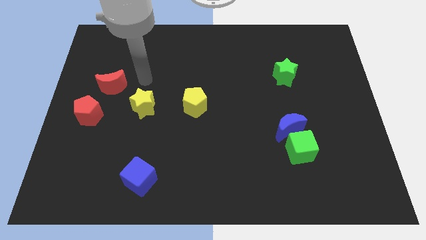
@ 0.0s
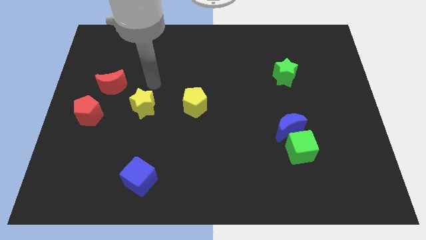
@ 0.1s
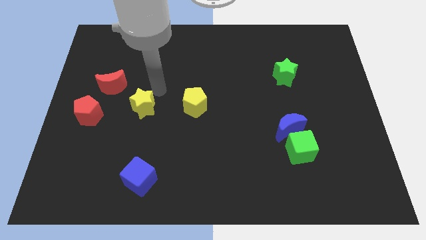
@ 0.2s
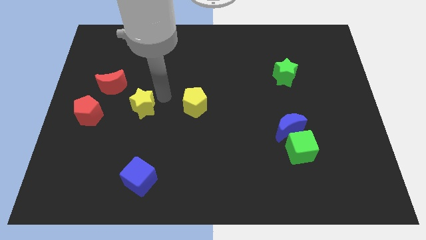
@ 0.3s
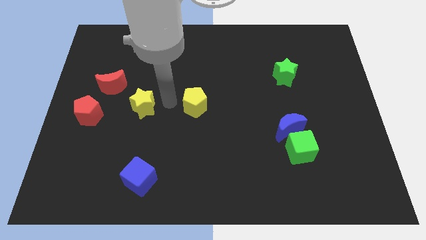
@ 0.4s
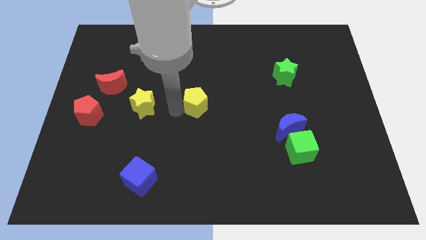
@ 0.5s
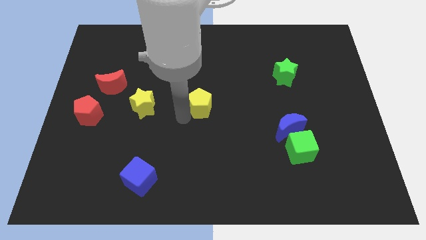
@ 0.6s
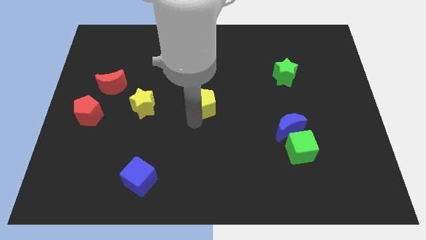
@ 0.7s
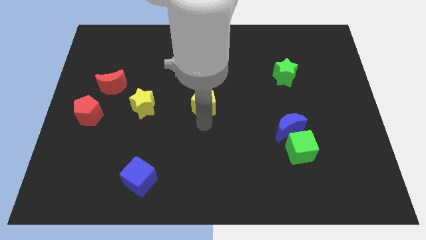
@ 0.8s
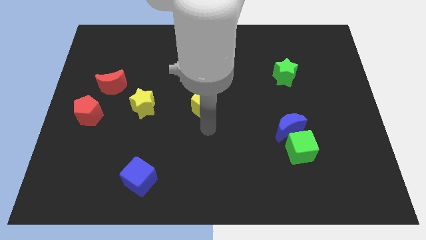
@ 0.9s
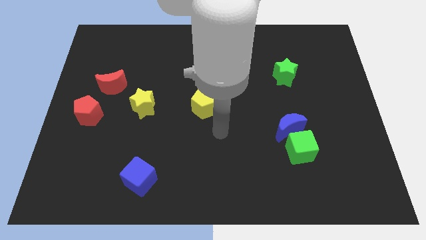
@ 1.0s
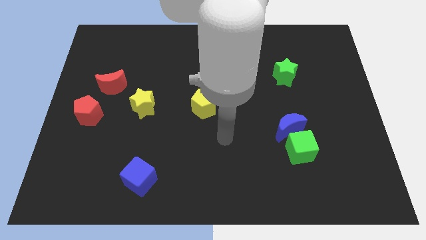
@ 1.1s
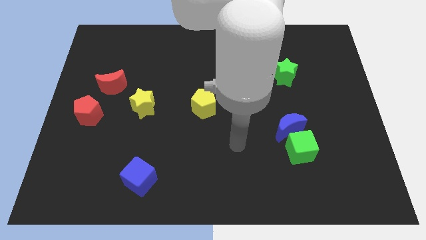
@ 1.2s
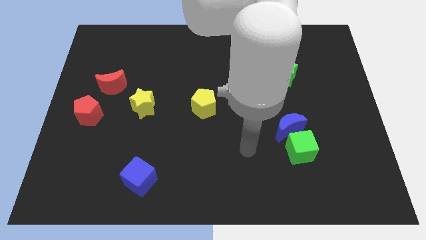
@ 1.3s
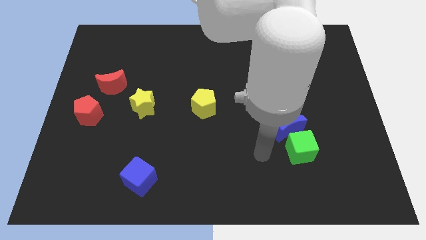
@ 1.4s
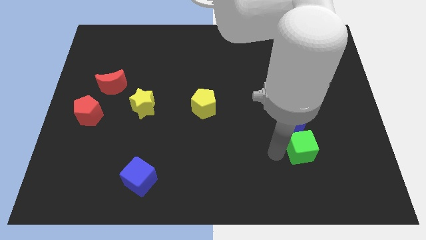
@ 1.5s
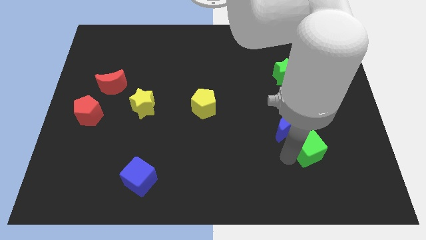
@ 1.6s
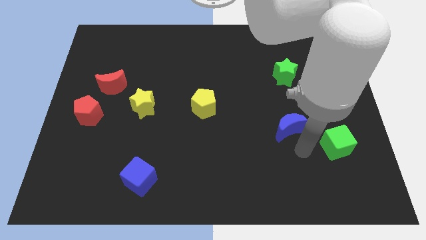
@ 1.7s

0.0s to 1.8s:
separate the blue moon from the green cube

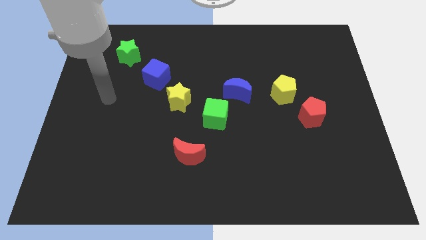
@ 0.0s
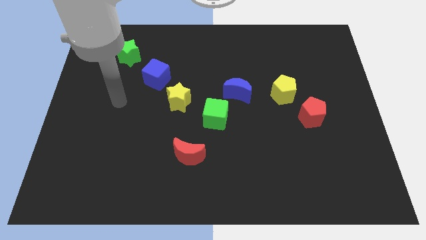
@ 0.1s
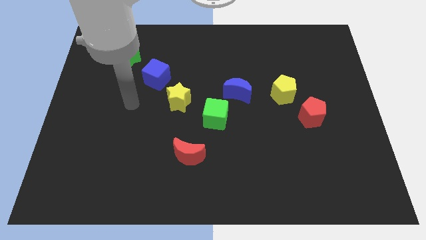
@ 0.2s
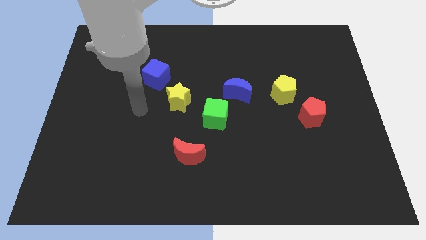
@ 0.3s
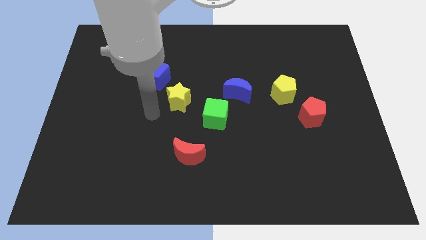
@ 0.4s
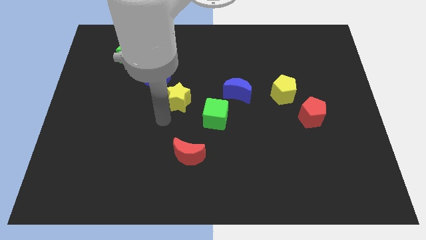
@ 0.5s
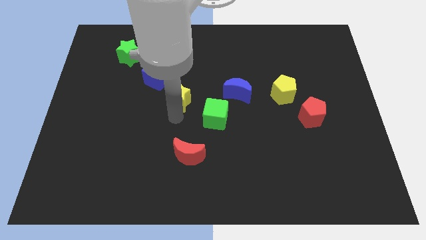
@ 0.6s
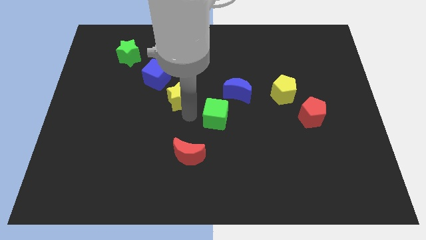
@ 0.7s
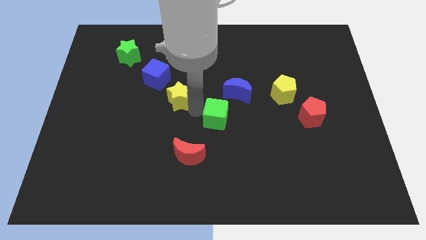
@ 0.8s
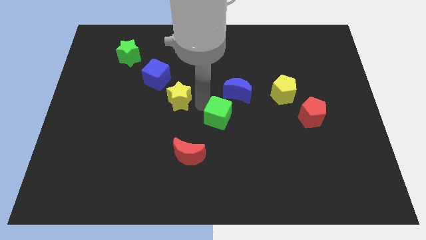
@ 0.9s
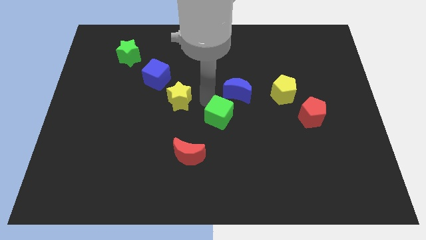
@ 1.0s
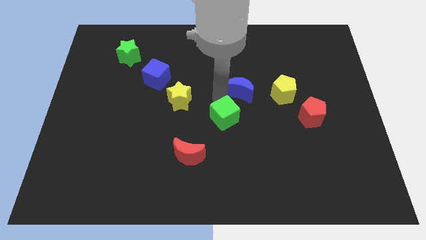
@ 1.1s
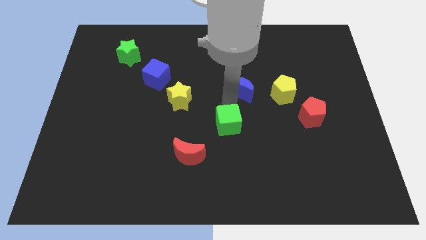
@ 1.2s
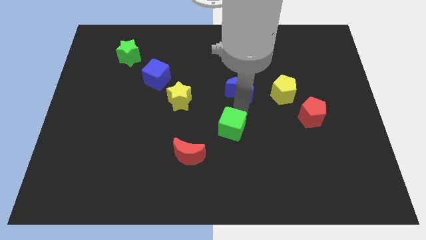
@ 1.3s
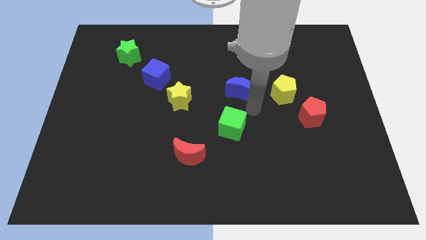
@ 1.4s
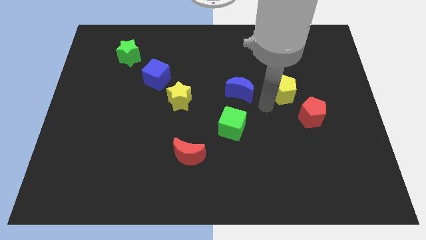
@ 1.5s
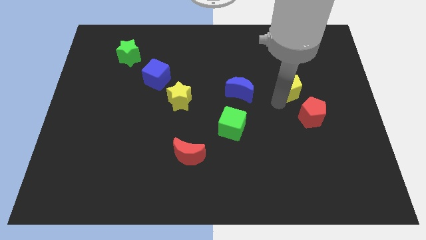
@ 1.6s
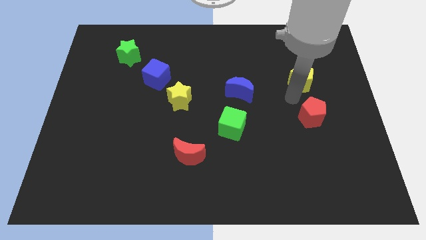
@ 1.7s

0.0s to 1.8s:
pull the red pentagon apart from the yellow pentagon

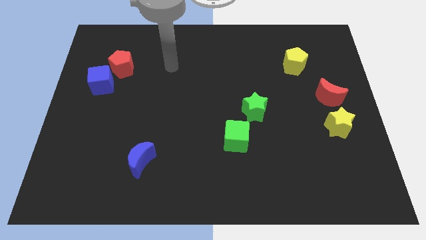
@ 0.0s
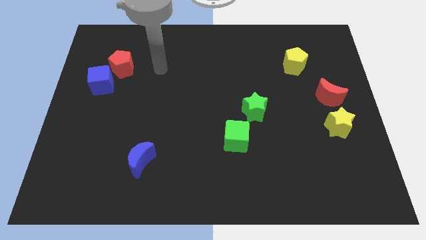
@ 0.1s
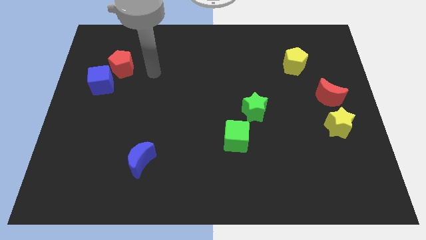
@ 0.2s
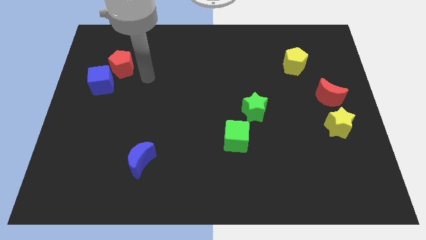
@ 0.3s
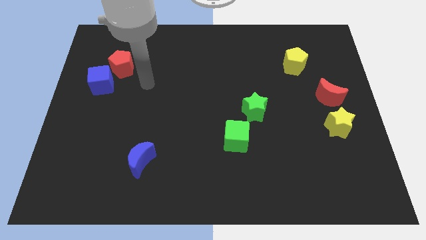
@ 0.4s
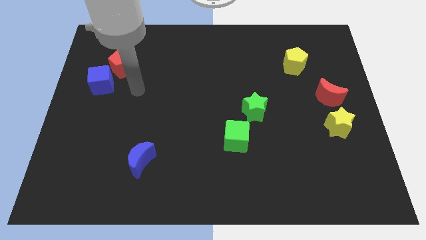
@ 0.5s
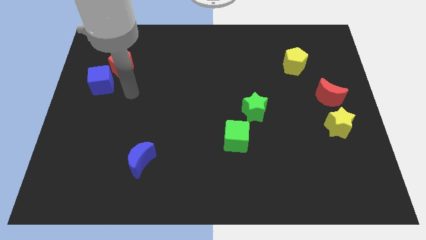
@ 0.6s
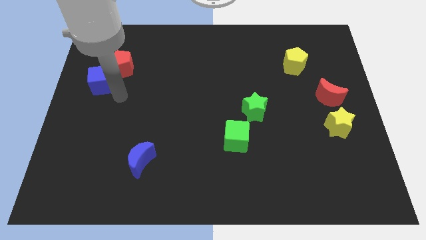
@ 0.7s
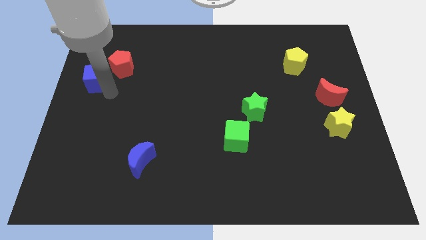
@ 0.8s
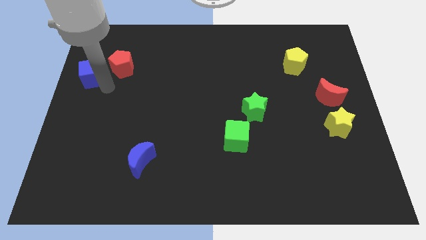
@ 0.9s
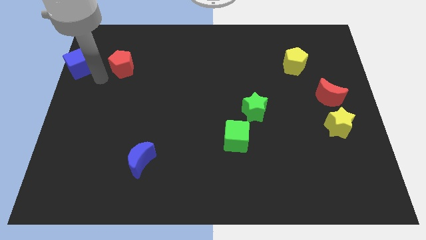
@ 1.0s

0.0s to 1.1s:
move the red pentagon away from the blue cube

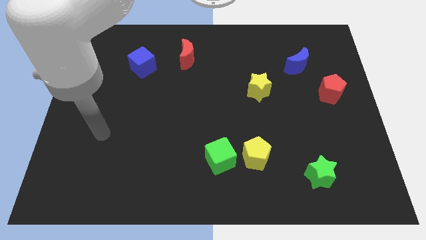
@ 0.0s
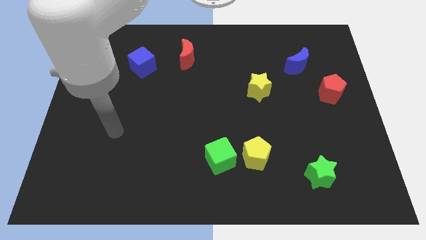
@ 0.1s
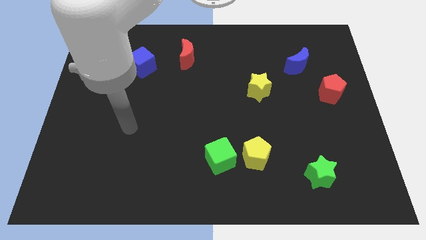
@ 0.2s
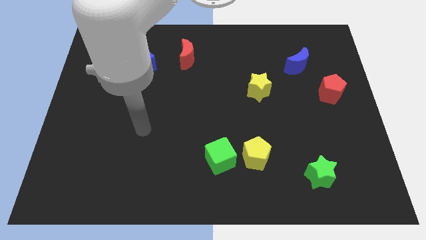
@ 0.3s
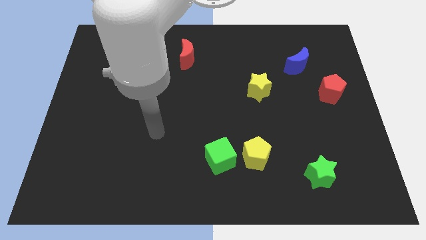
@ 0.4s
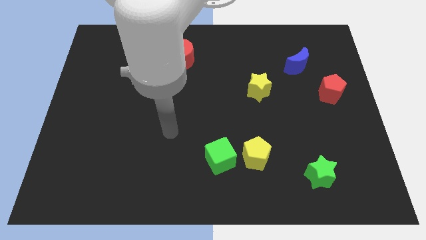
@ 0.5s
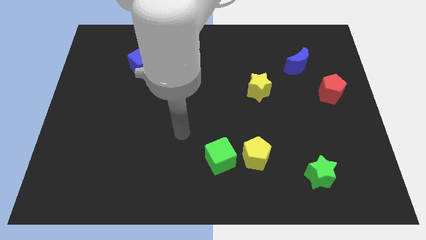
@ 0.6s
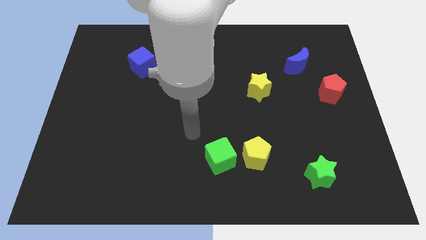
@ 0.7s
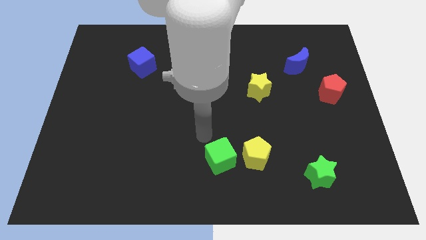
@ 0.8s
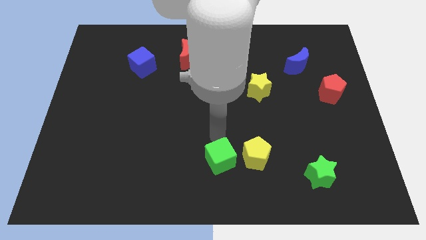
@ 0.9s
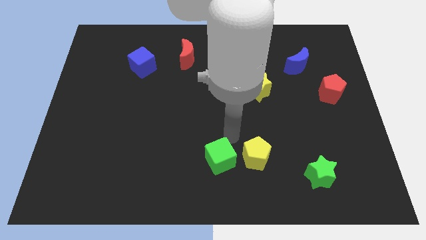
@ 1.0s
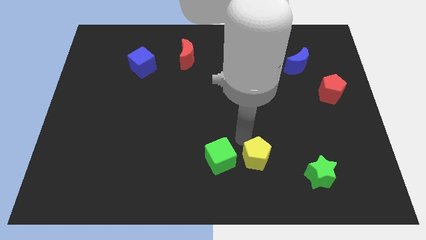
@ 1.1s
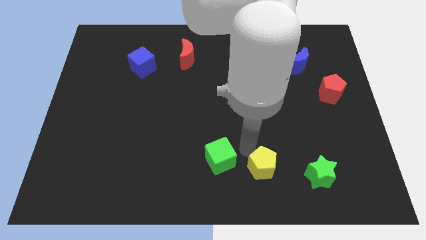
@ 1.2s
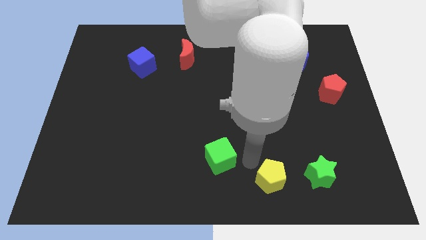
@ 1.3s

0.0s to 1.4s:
separate the green cube from the yellow pentagon

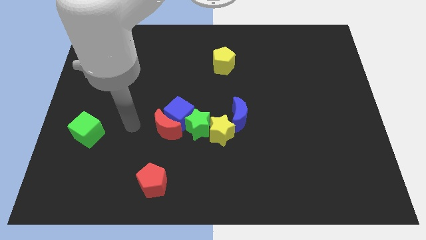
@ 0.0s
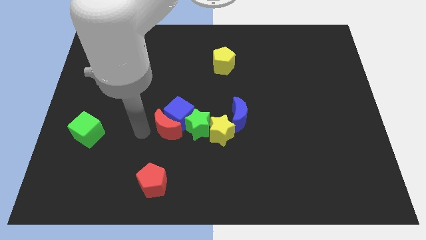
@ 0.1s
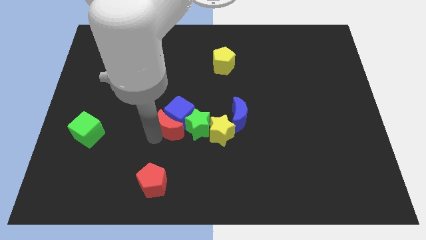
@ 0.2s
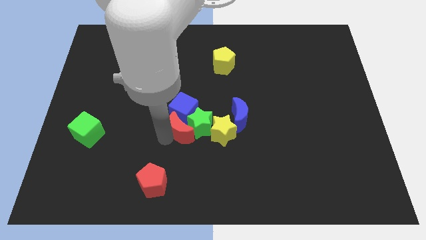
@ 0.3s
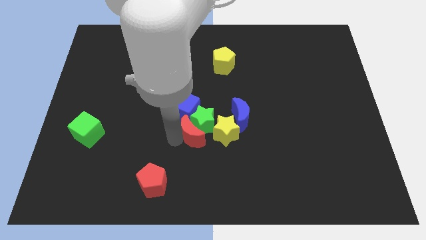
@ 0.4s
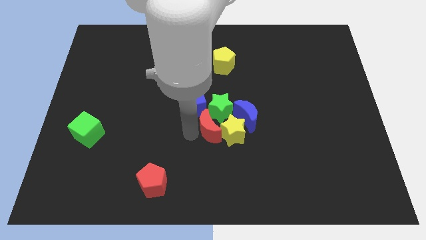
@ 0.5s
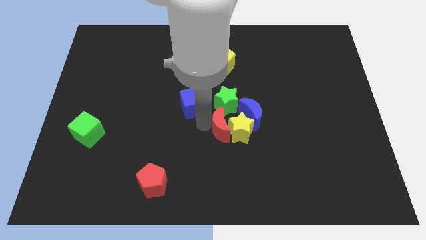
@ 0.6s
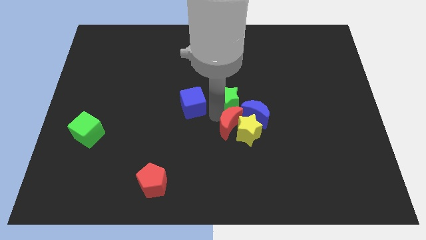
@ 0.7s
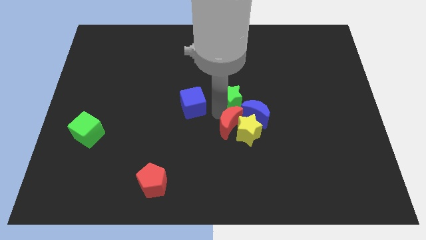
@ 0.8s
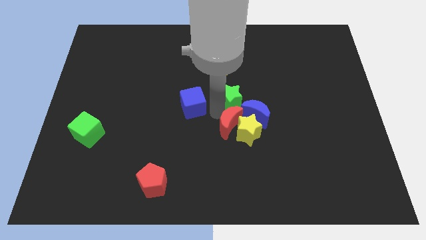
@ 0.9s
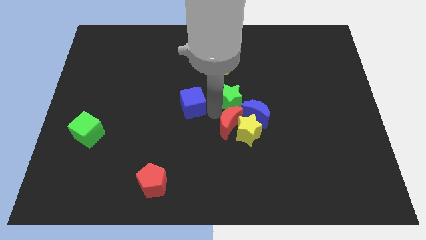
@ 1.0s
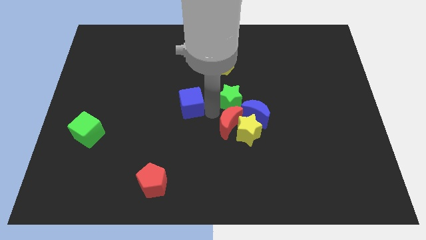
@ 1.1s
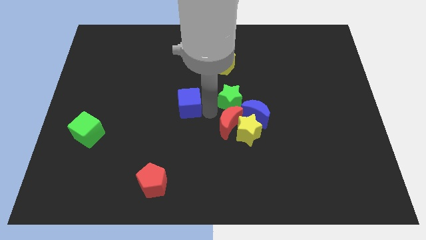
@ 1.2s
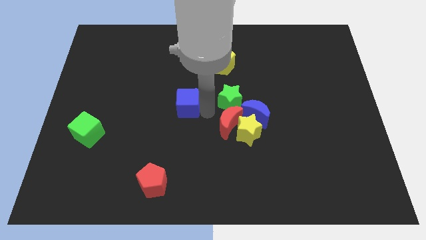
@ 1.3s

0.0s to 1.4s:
pull the blue cube apart from the red moon and green star

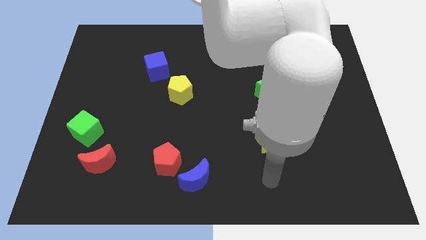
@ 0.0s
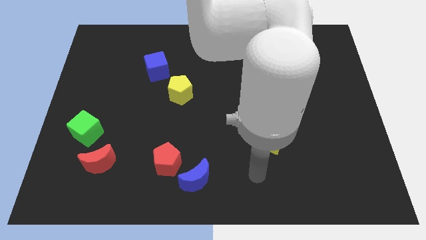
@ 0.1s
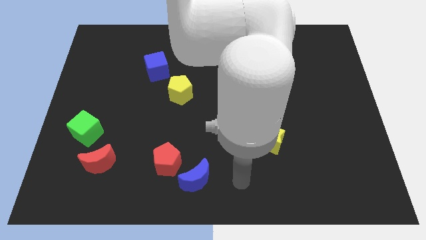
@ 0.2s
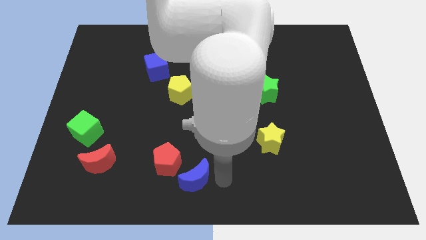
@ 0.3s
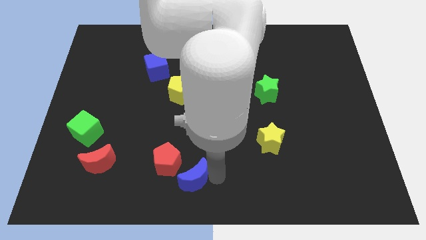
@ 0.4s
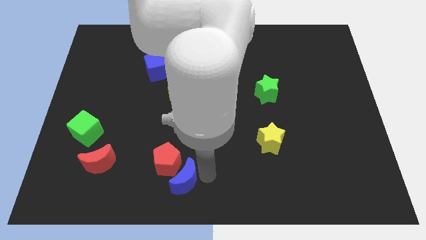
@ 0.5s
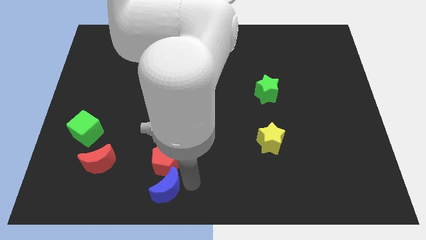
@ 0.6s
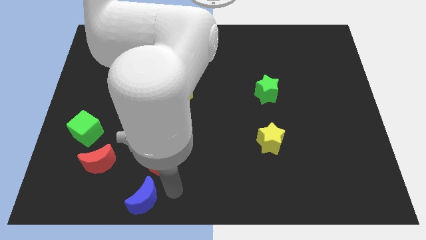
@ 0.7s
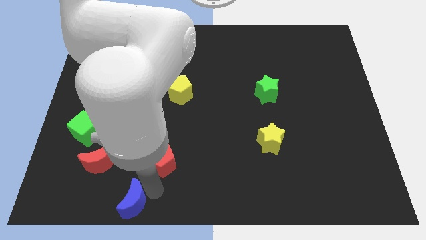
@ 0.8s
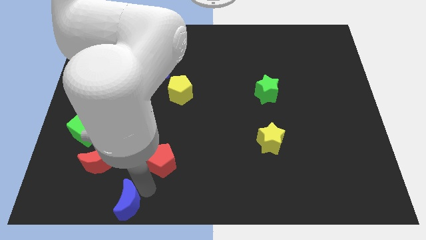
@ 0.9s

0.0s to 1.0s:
move the red pentagon away from the blue moon

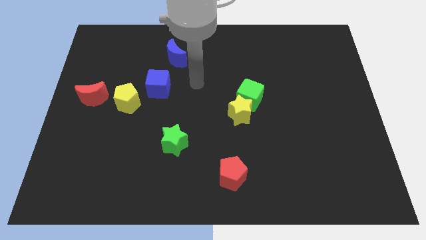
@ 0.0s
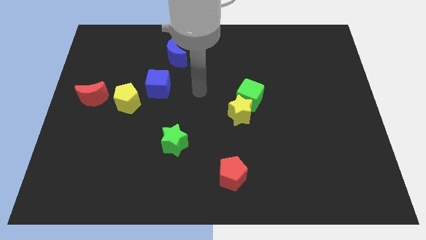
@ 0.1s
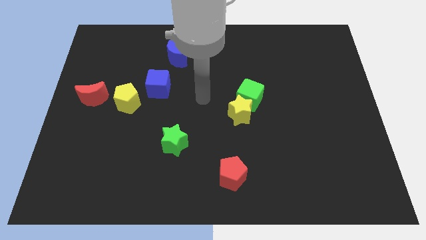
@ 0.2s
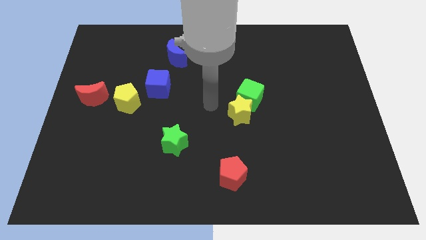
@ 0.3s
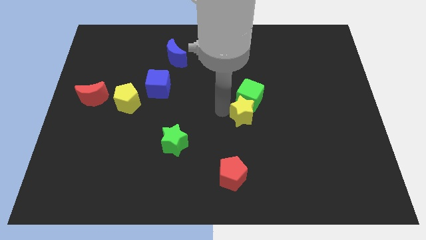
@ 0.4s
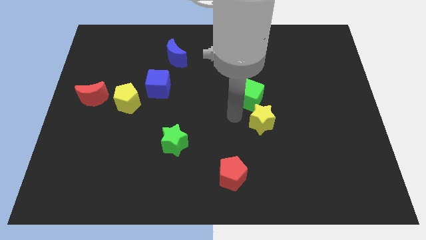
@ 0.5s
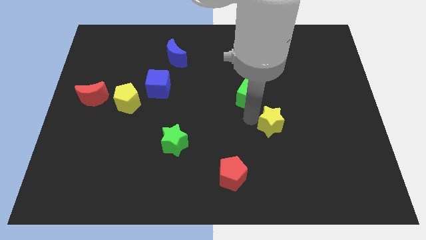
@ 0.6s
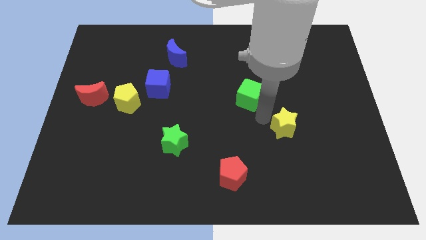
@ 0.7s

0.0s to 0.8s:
pull the green cube apart from the yellow star

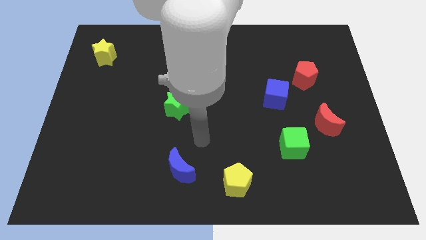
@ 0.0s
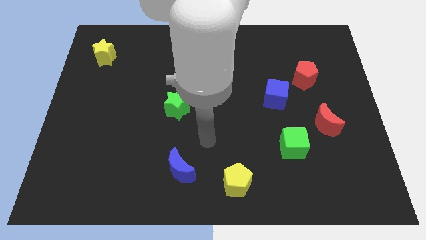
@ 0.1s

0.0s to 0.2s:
separate the red pentagon from the blue cube
